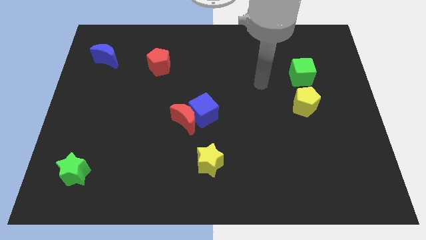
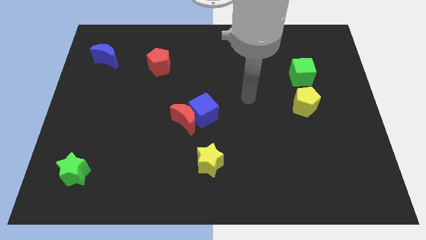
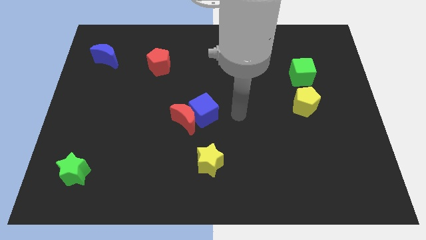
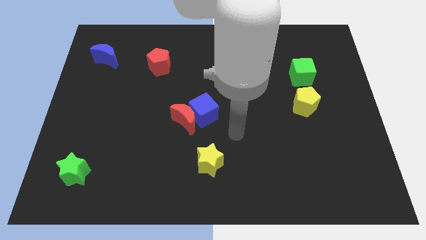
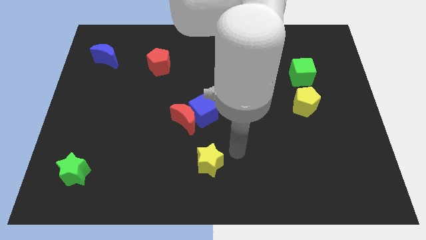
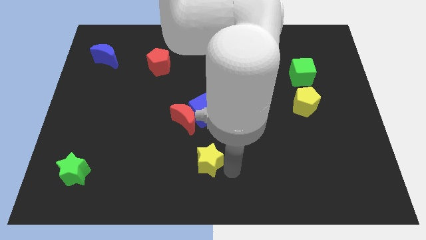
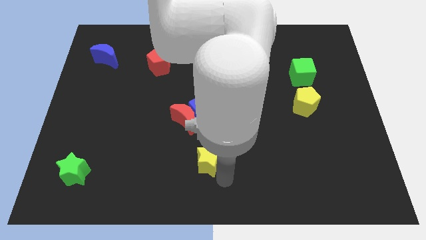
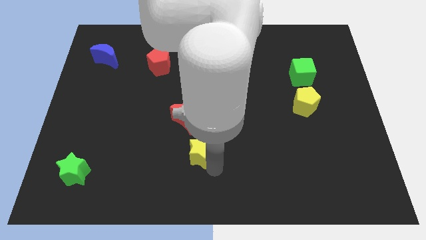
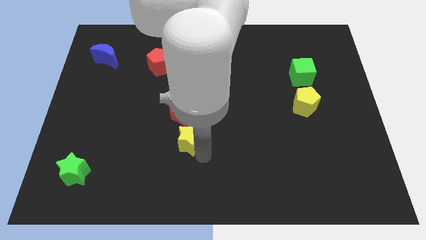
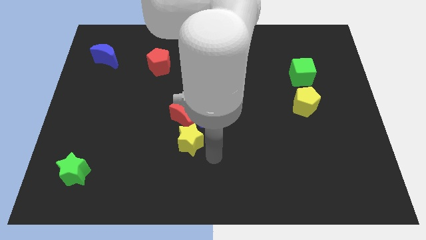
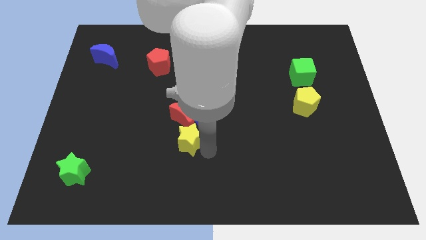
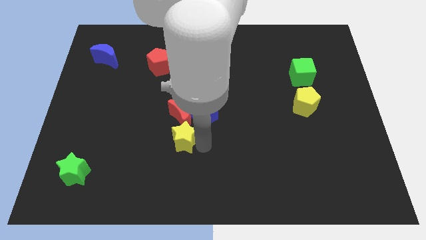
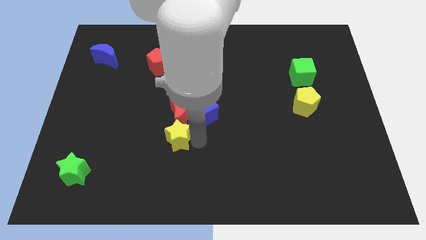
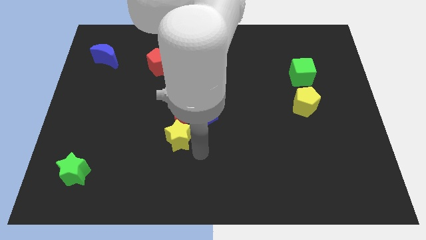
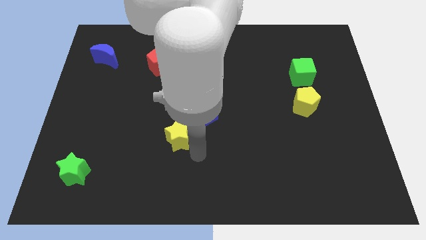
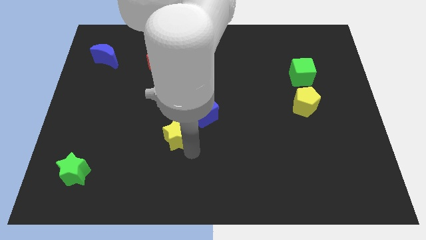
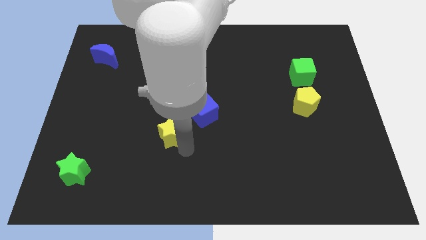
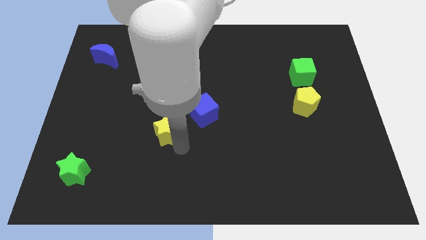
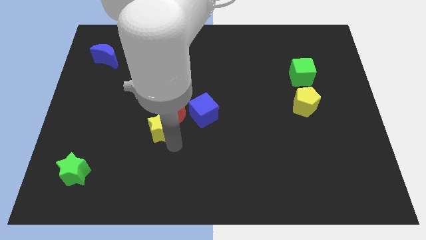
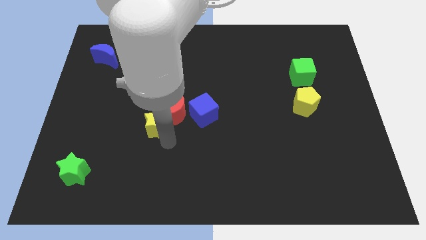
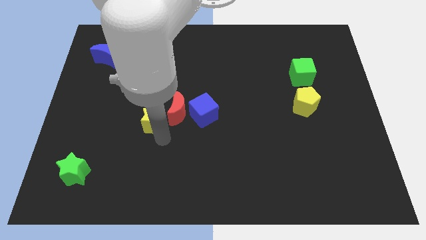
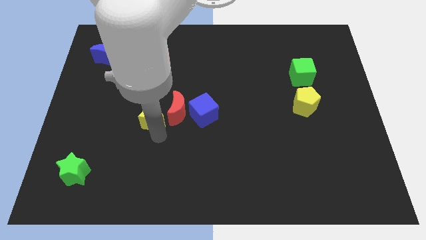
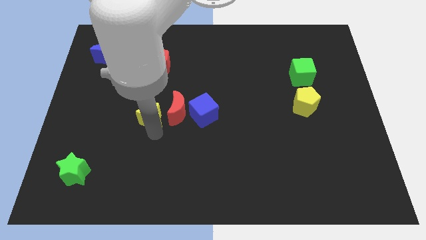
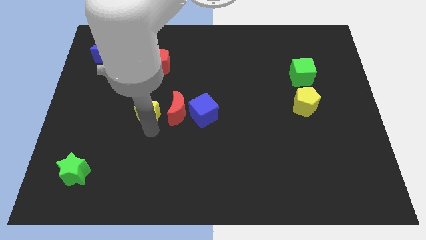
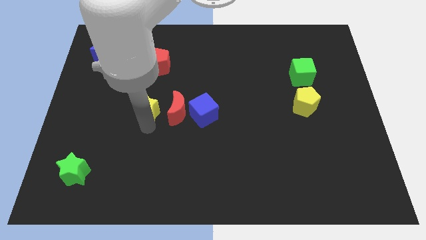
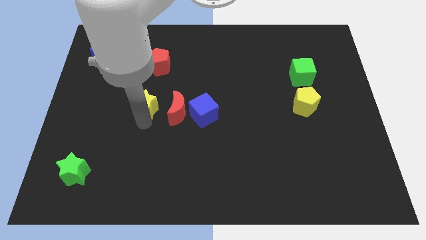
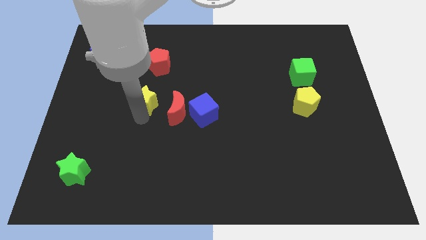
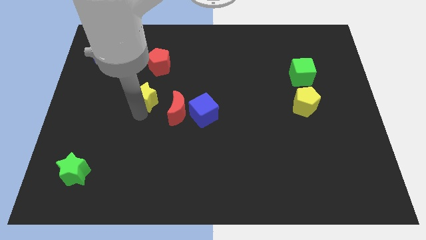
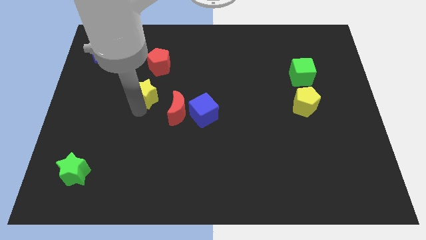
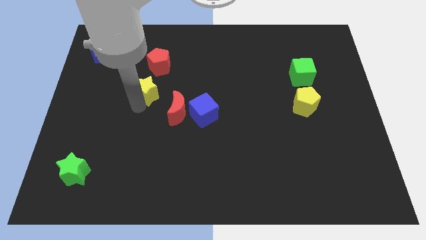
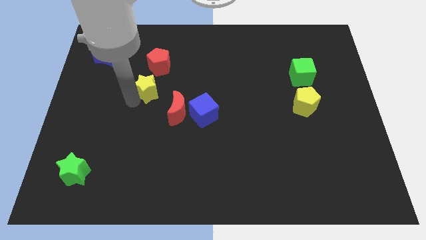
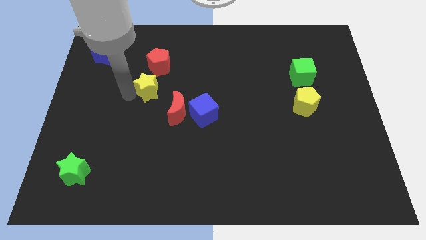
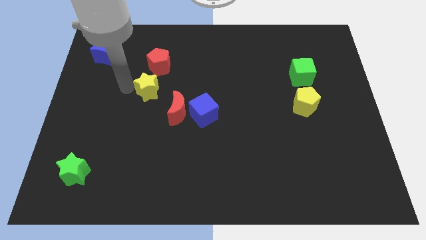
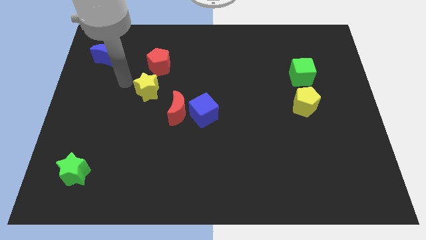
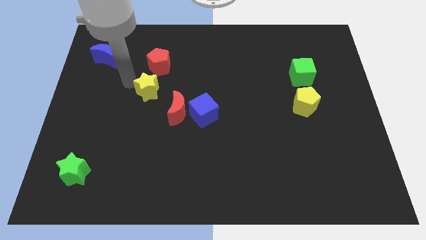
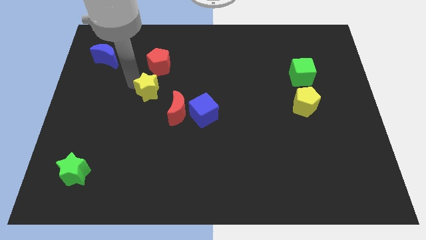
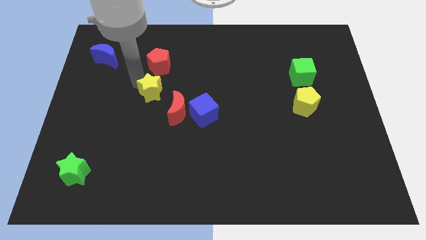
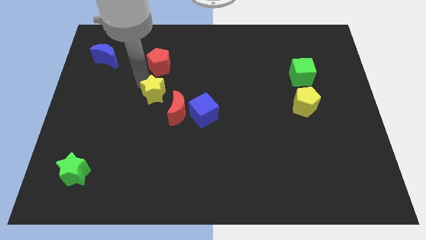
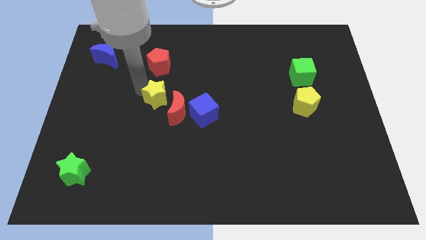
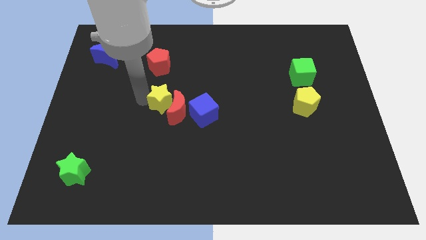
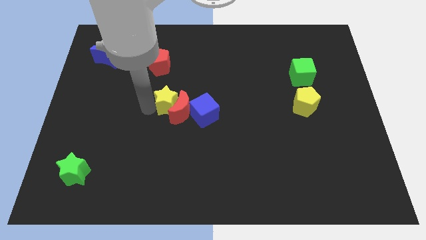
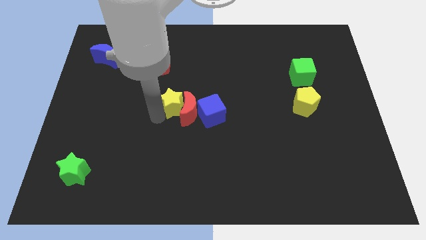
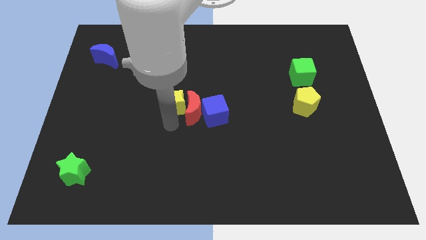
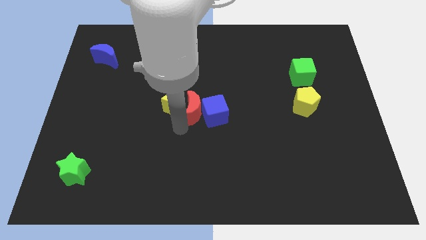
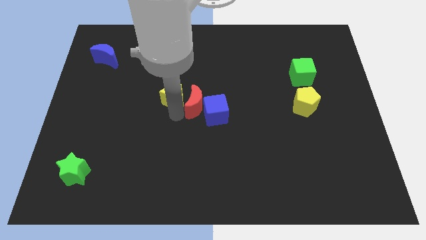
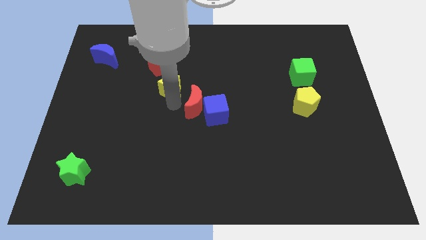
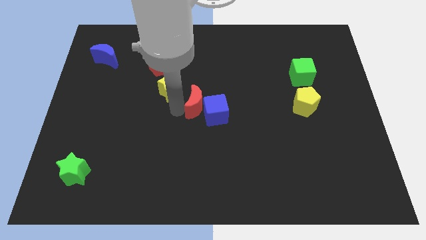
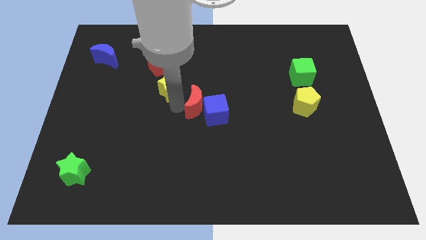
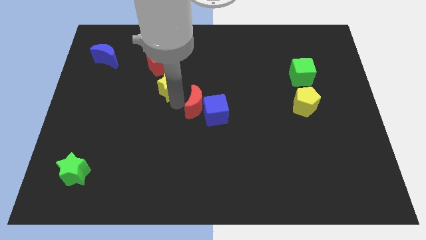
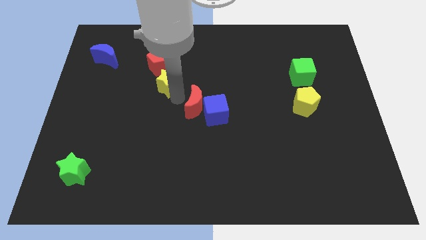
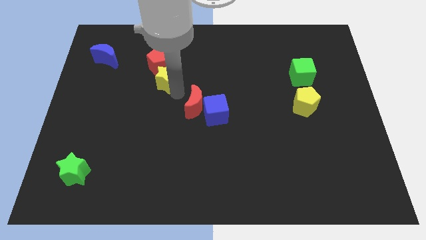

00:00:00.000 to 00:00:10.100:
slide the yellow star towards the red pentagon

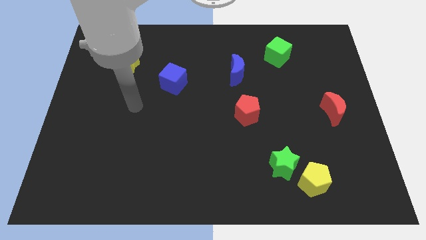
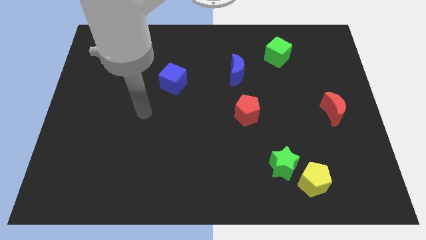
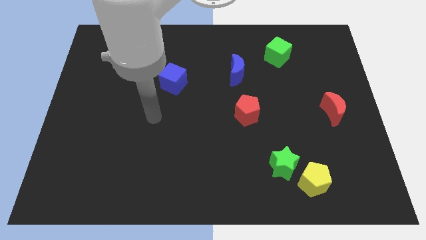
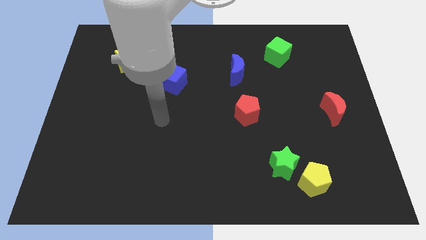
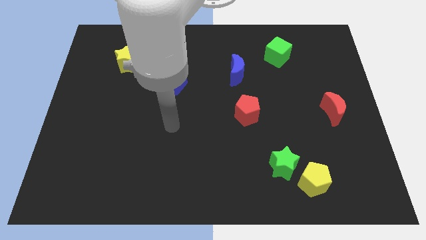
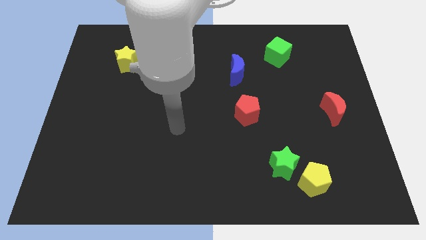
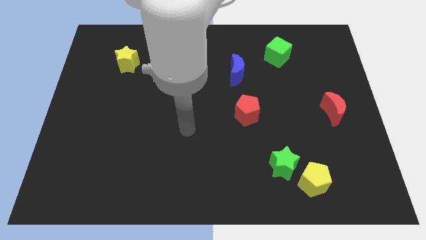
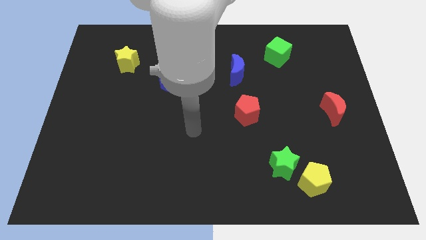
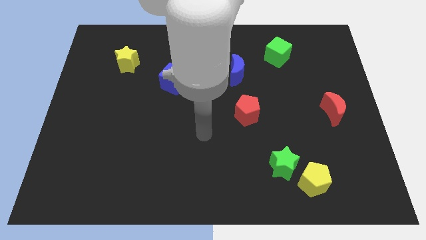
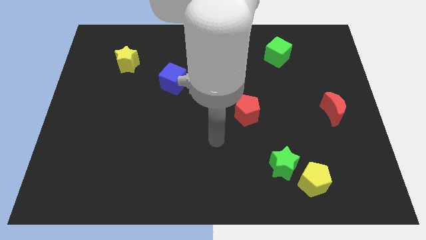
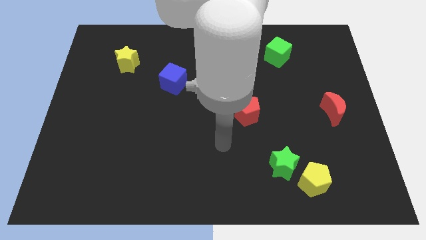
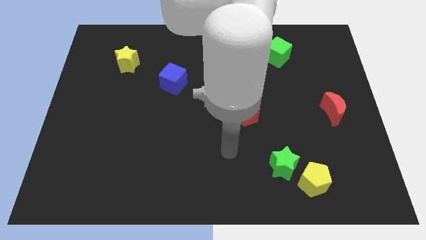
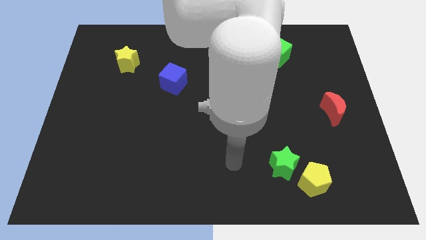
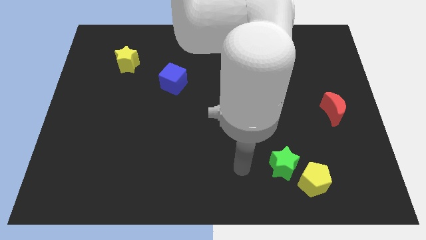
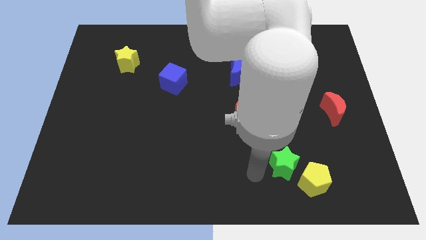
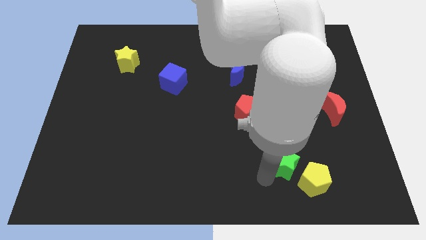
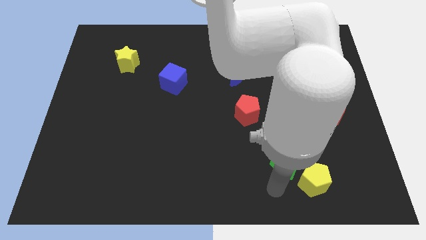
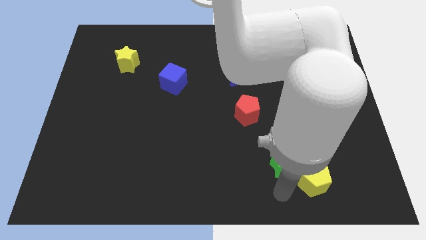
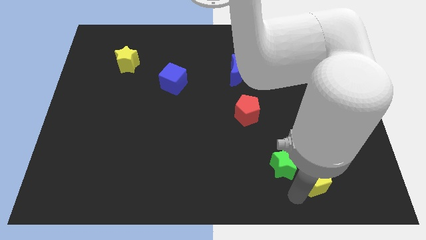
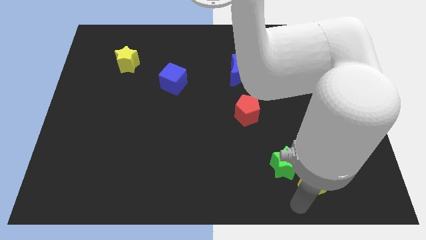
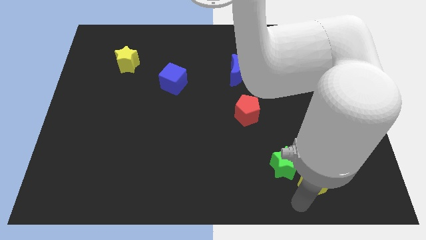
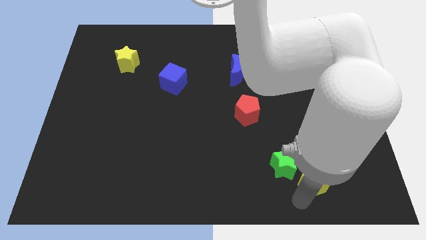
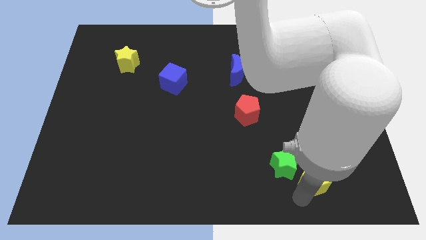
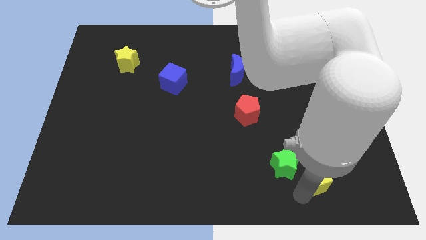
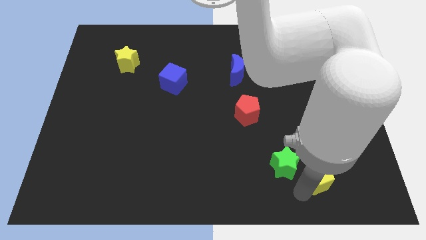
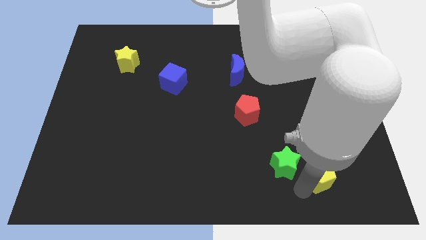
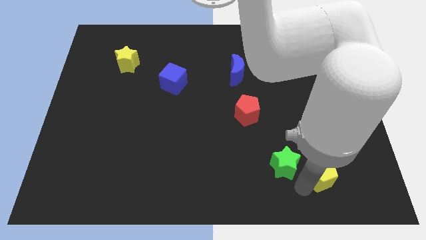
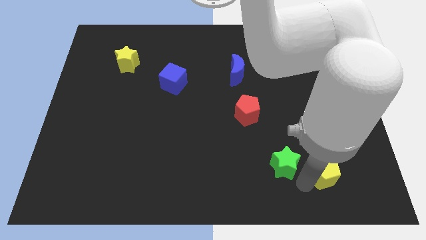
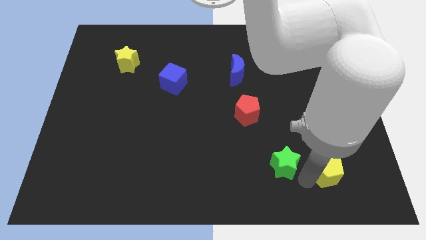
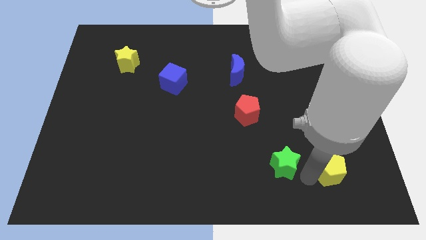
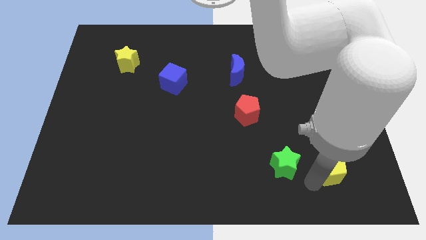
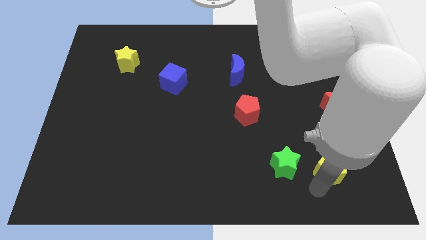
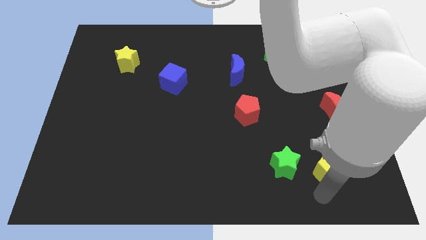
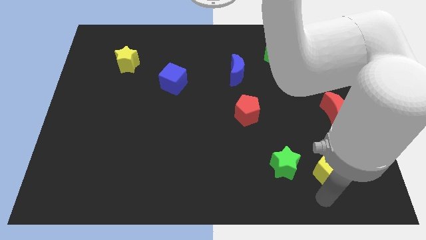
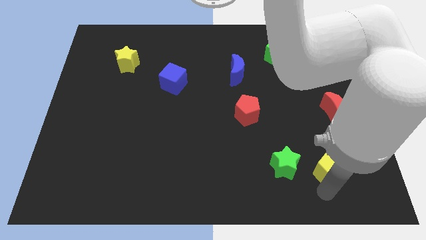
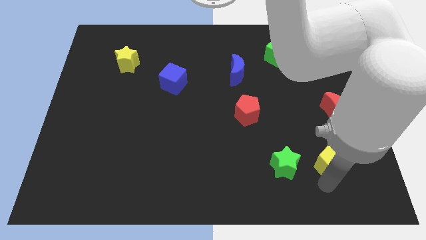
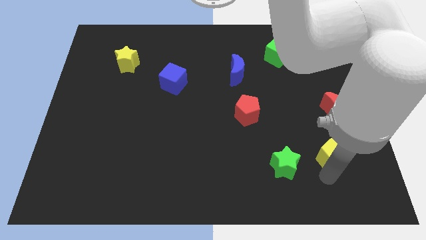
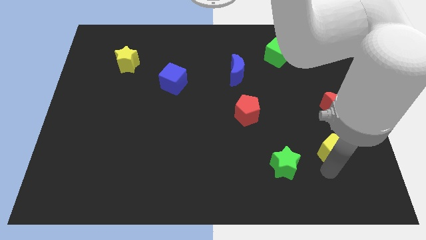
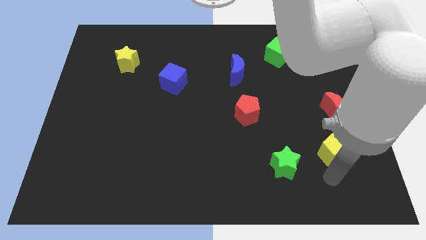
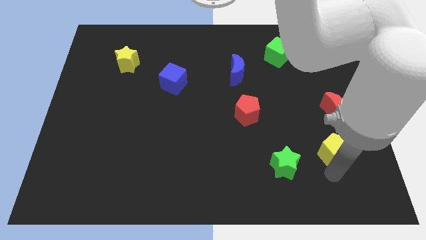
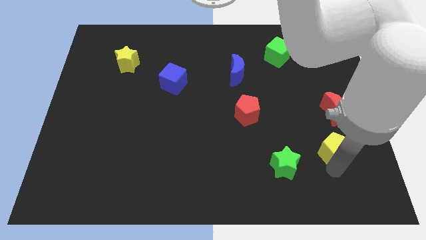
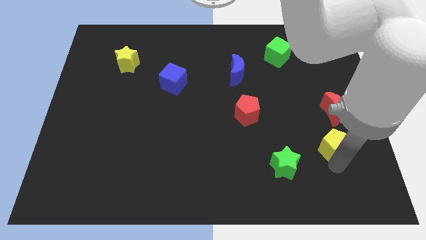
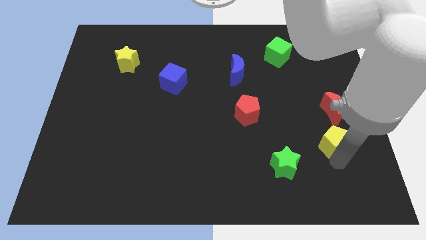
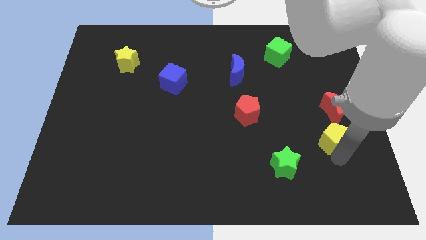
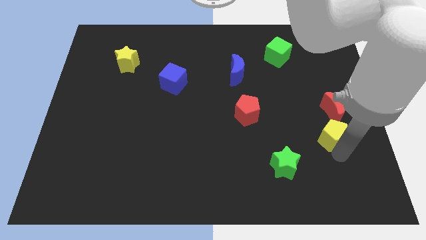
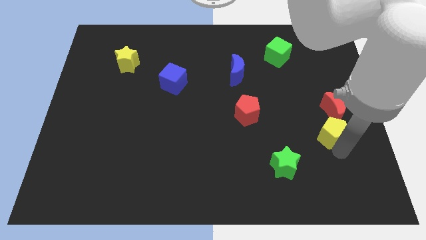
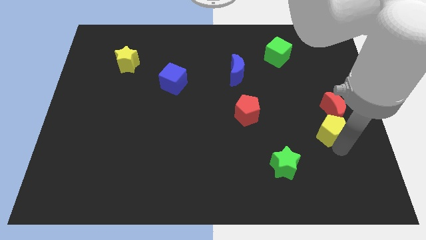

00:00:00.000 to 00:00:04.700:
move the yellow pentagon to the red moon
